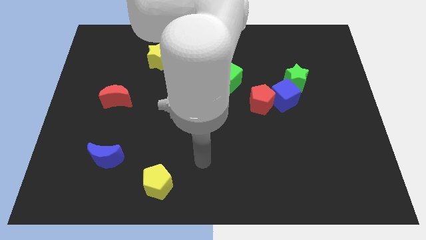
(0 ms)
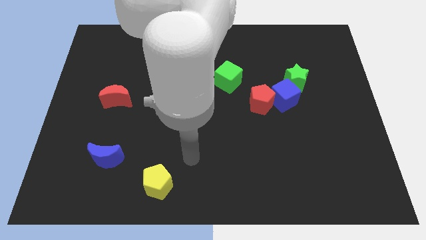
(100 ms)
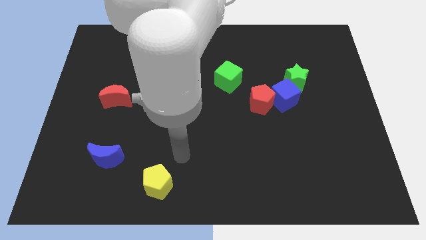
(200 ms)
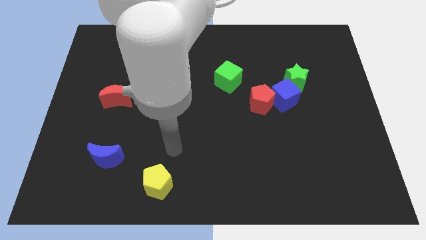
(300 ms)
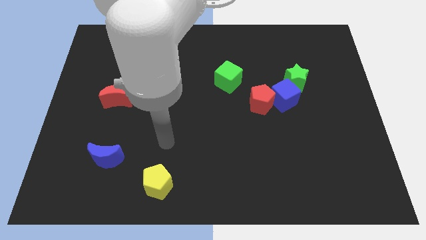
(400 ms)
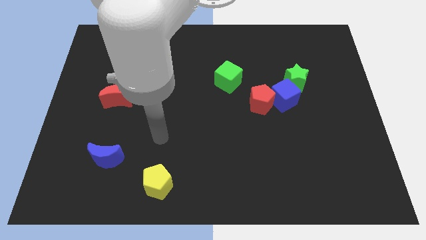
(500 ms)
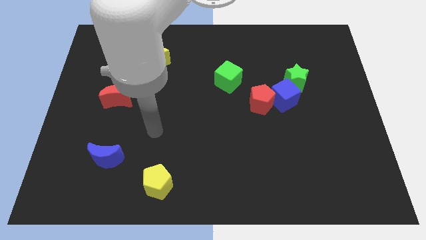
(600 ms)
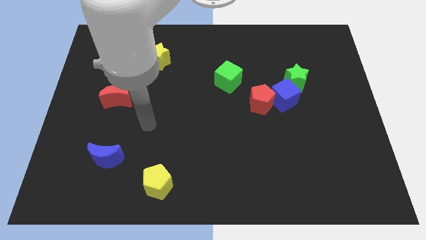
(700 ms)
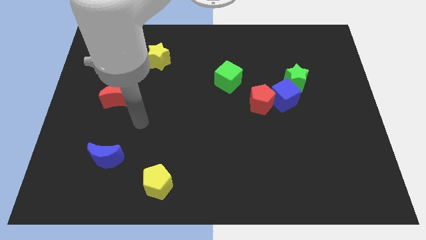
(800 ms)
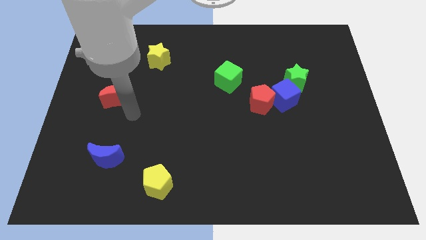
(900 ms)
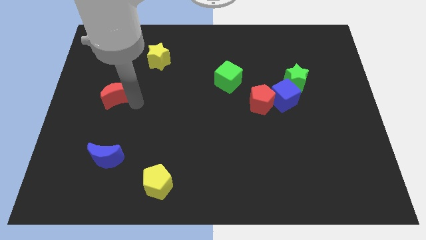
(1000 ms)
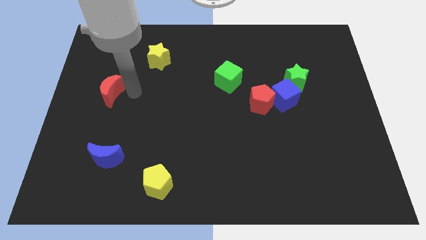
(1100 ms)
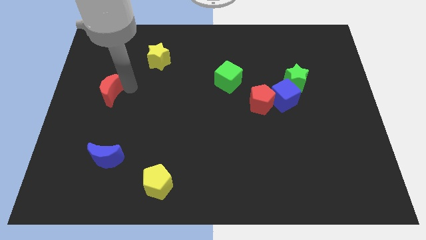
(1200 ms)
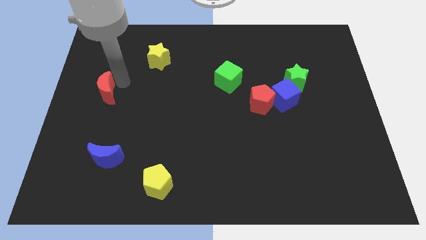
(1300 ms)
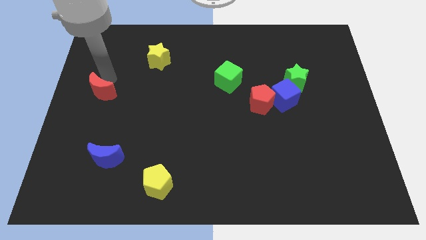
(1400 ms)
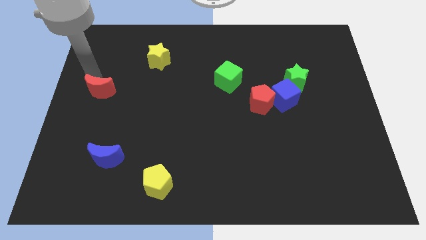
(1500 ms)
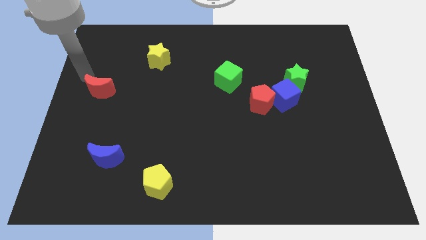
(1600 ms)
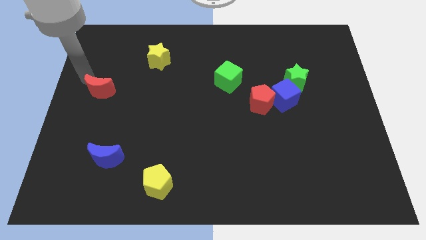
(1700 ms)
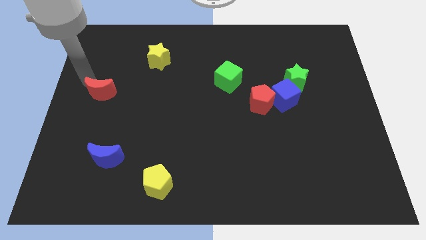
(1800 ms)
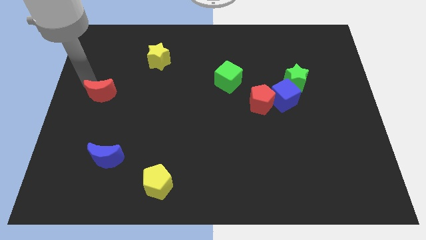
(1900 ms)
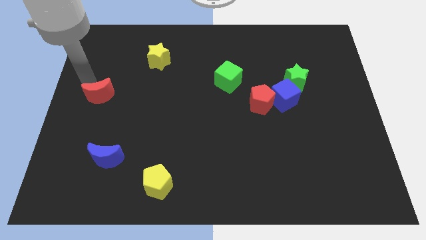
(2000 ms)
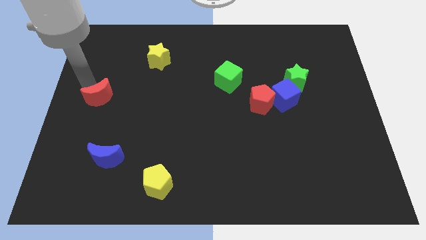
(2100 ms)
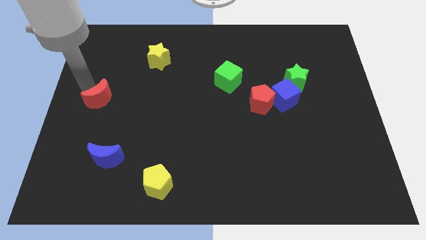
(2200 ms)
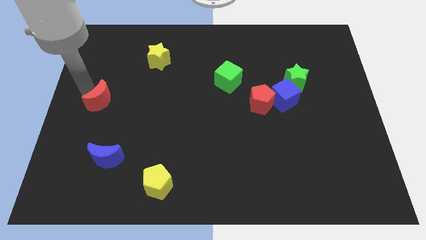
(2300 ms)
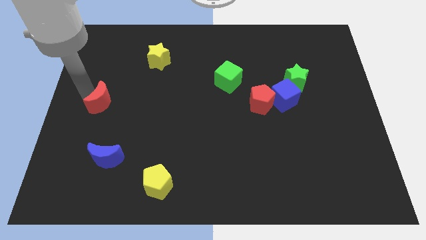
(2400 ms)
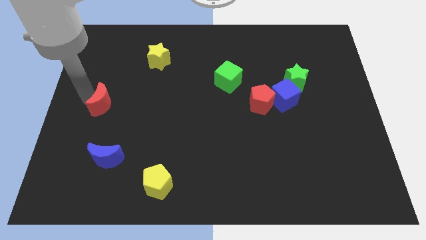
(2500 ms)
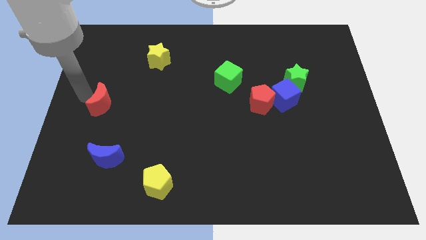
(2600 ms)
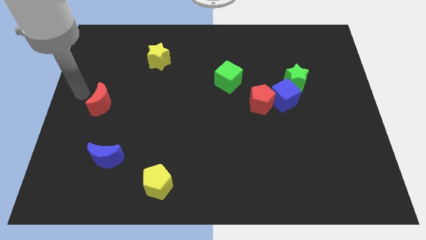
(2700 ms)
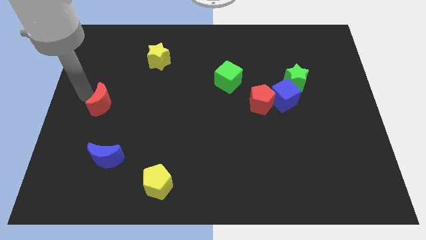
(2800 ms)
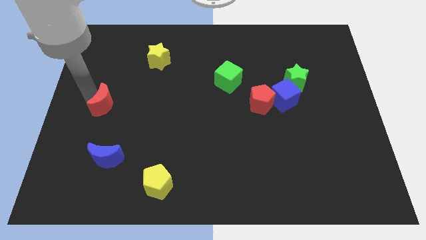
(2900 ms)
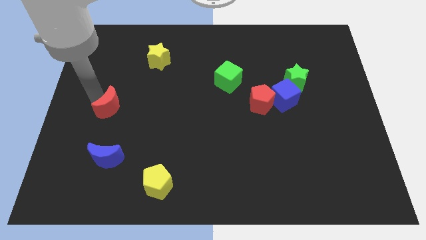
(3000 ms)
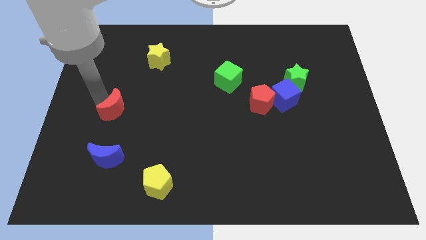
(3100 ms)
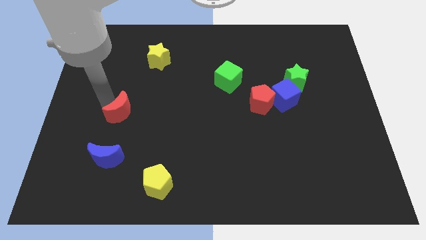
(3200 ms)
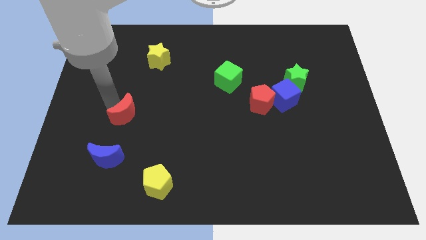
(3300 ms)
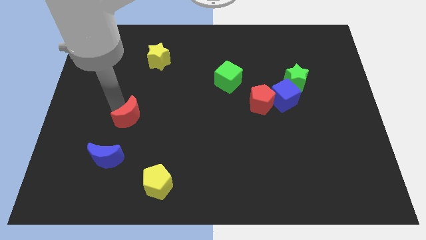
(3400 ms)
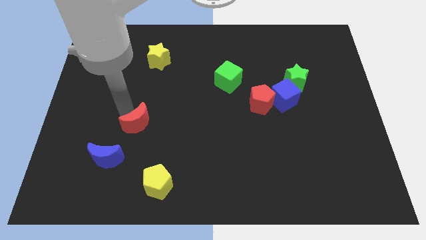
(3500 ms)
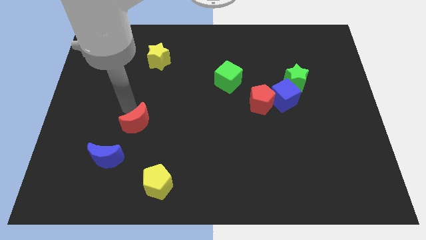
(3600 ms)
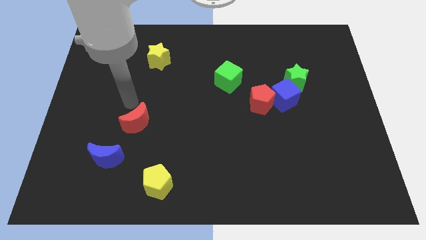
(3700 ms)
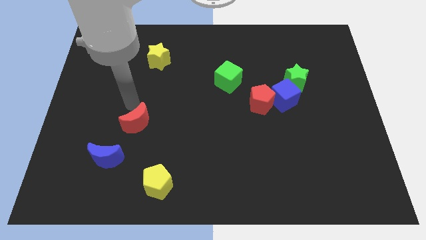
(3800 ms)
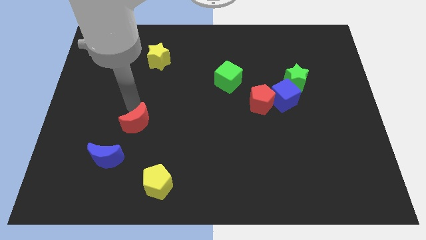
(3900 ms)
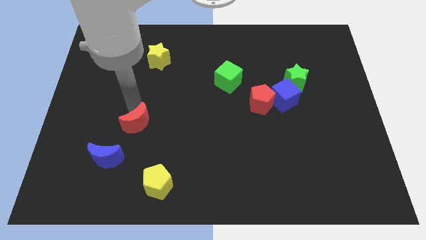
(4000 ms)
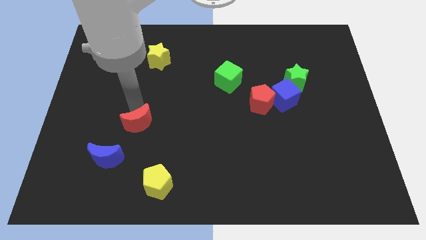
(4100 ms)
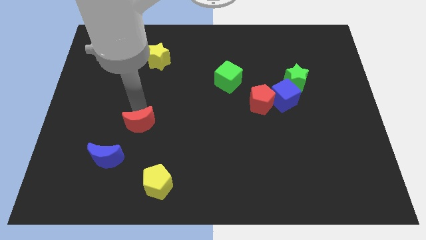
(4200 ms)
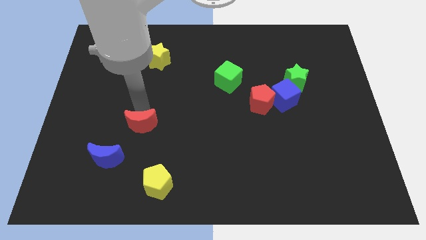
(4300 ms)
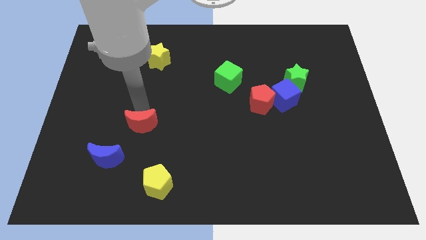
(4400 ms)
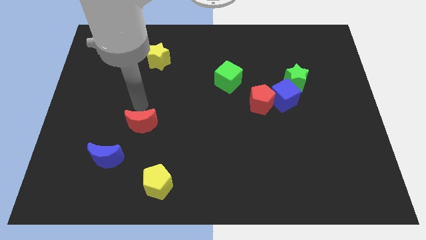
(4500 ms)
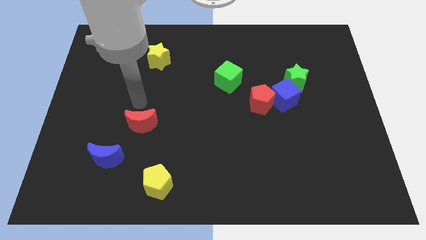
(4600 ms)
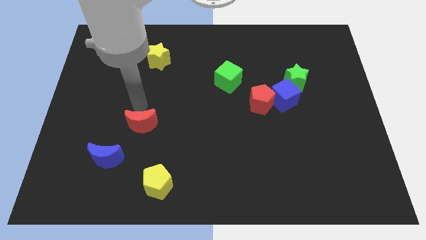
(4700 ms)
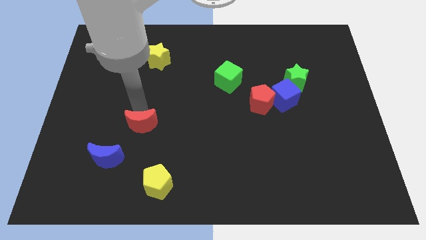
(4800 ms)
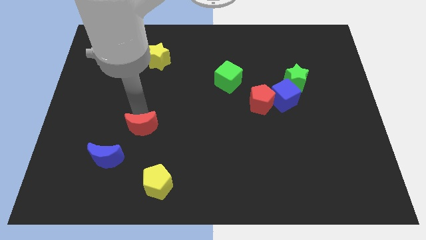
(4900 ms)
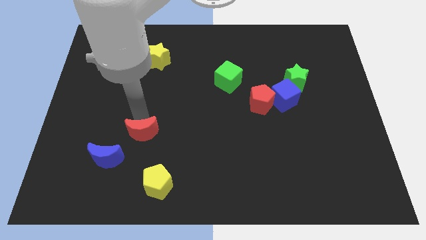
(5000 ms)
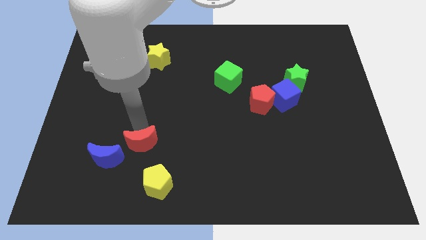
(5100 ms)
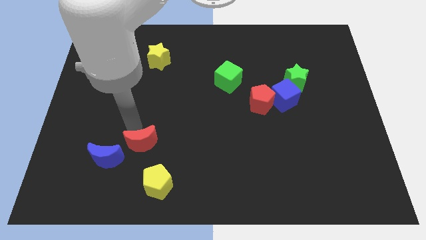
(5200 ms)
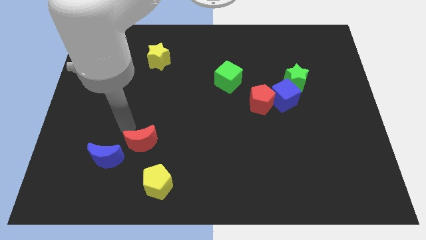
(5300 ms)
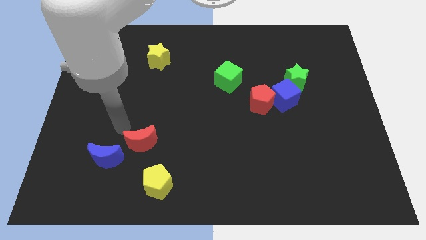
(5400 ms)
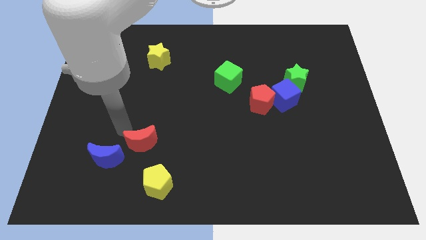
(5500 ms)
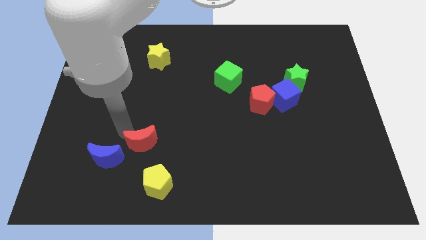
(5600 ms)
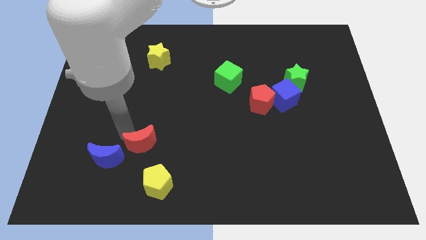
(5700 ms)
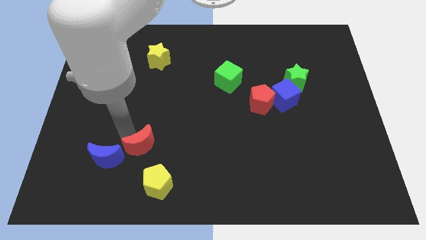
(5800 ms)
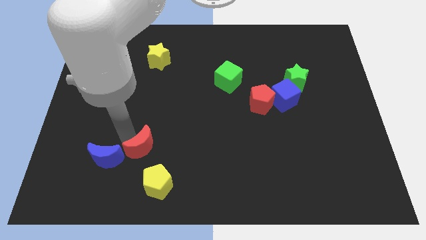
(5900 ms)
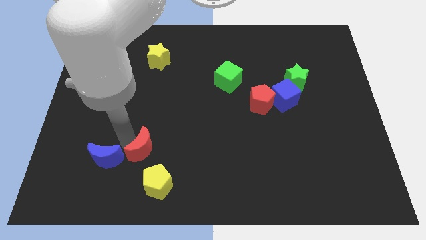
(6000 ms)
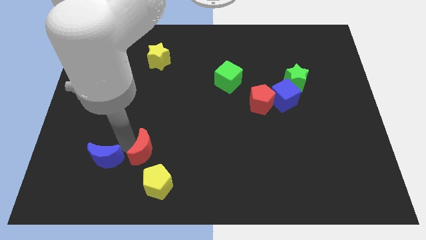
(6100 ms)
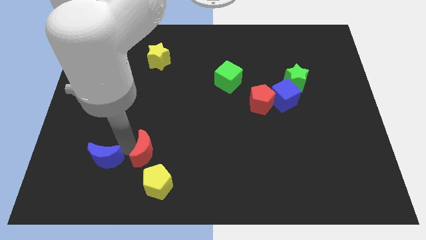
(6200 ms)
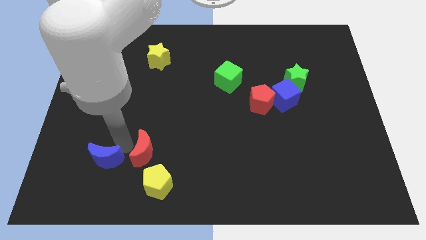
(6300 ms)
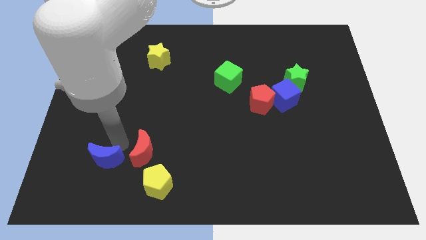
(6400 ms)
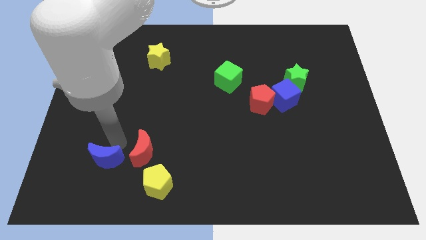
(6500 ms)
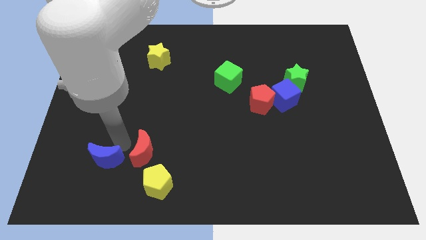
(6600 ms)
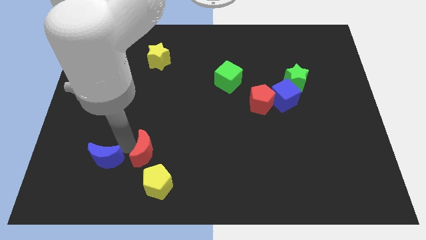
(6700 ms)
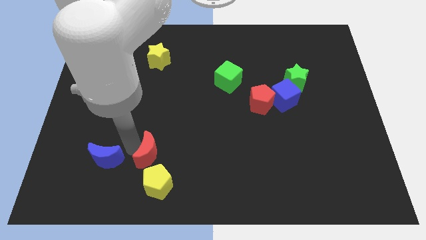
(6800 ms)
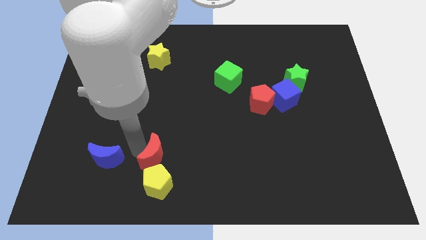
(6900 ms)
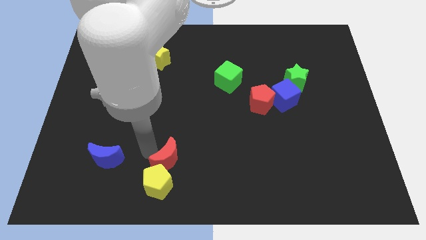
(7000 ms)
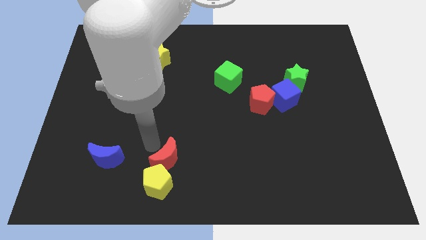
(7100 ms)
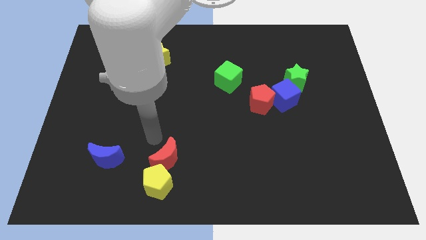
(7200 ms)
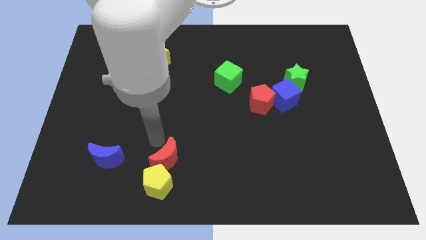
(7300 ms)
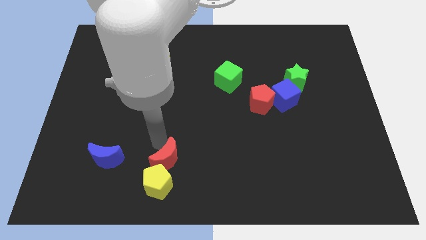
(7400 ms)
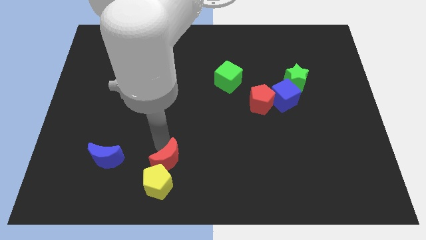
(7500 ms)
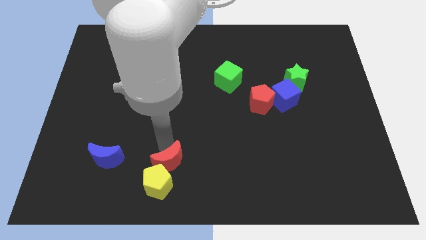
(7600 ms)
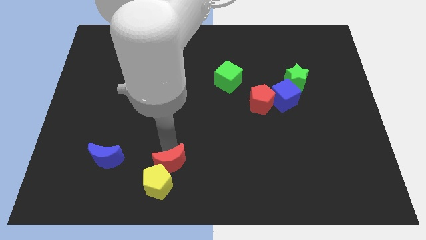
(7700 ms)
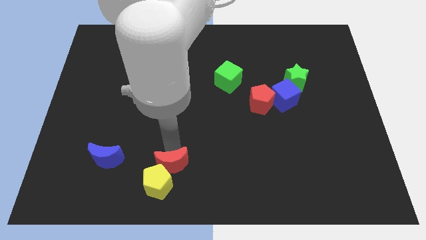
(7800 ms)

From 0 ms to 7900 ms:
put the red moon to the bottom
